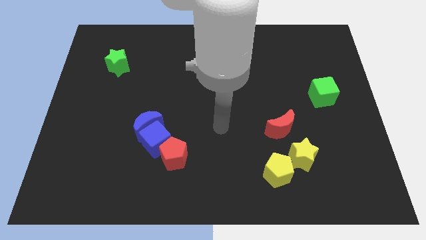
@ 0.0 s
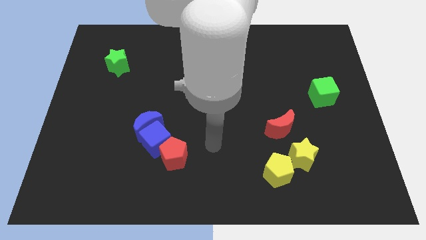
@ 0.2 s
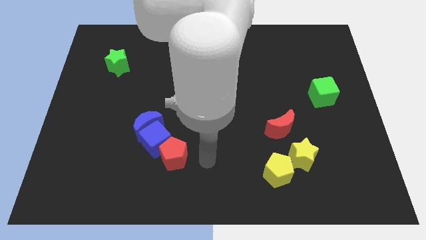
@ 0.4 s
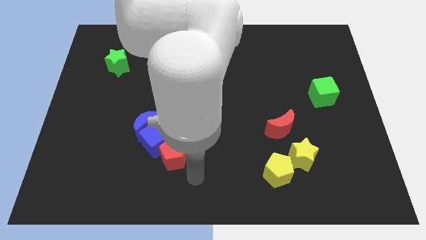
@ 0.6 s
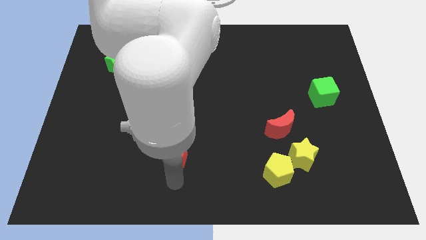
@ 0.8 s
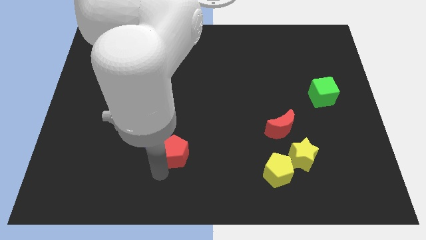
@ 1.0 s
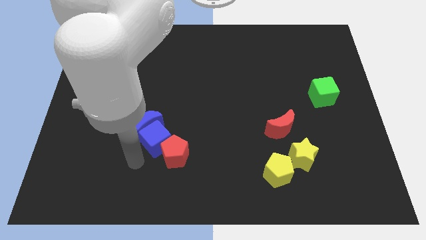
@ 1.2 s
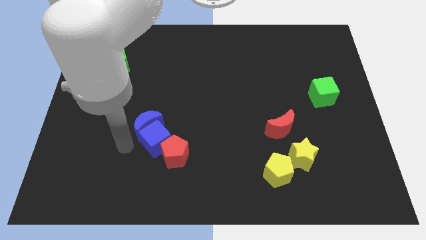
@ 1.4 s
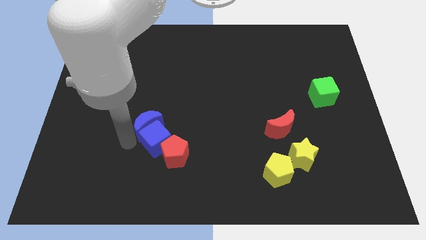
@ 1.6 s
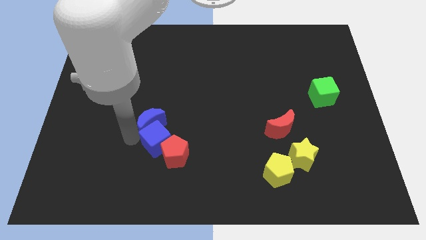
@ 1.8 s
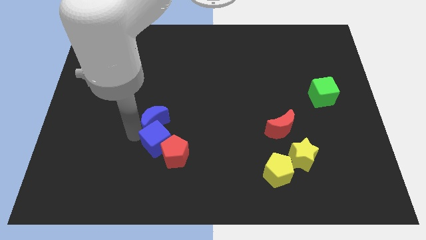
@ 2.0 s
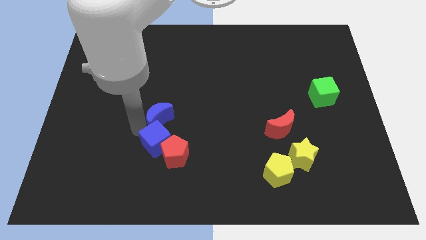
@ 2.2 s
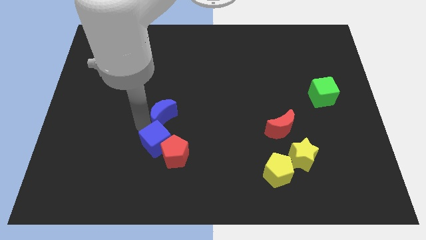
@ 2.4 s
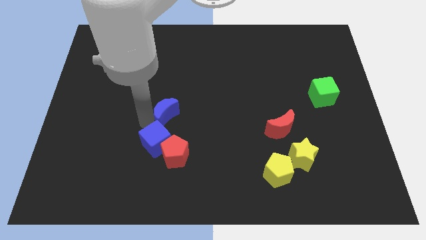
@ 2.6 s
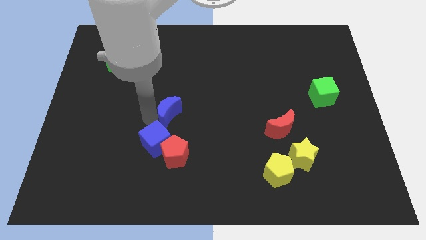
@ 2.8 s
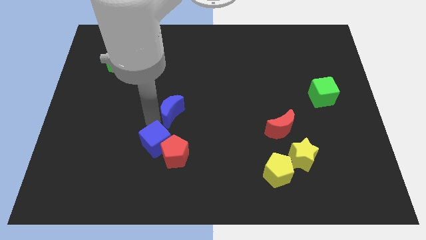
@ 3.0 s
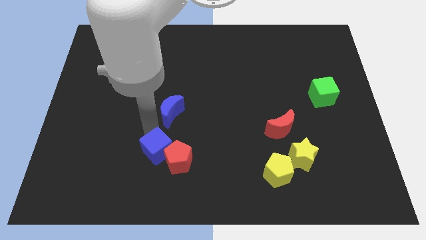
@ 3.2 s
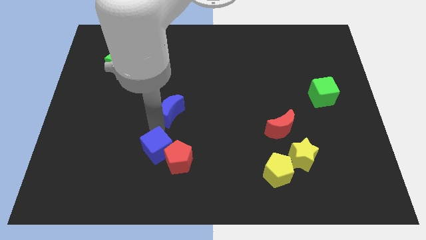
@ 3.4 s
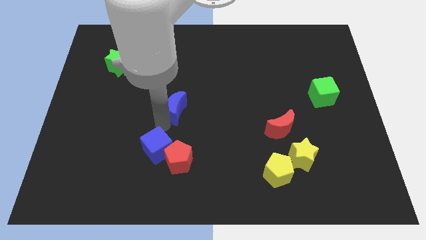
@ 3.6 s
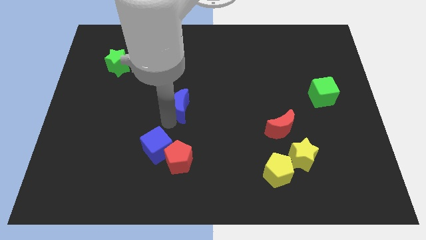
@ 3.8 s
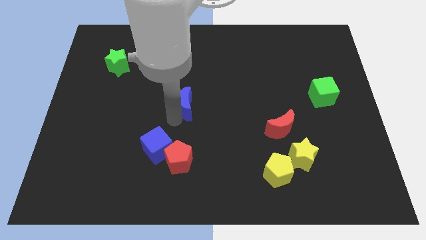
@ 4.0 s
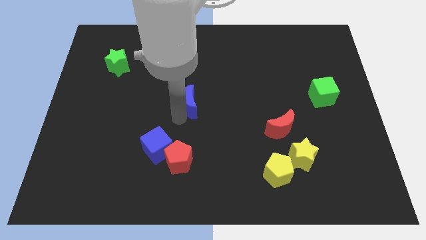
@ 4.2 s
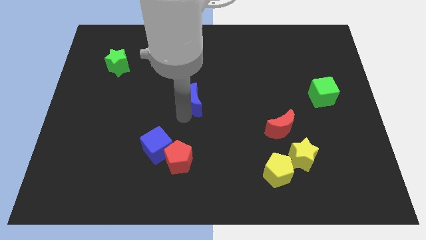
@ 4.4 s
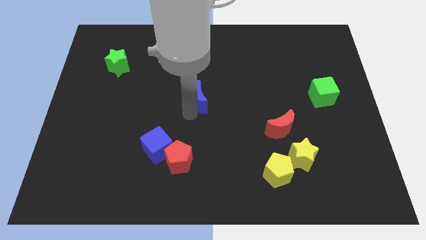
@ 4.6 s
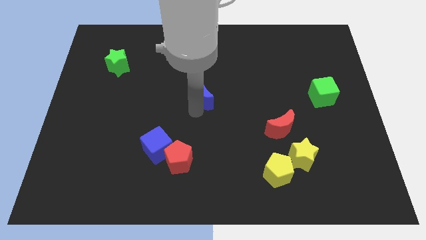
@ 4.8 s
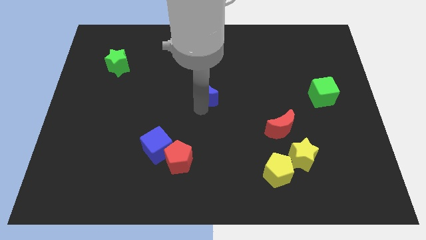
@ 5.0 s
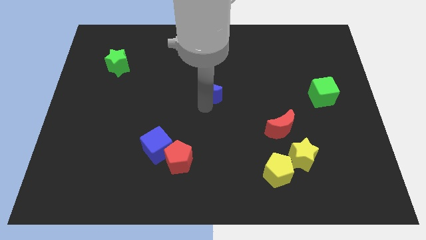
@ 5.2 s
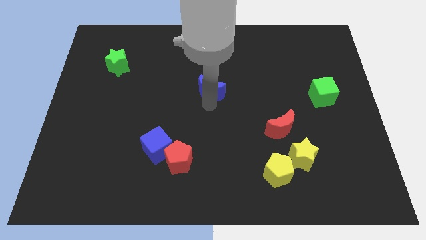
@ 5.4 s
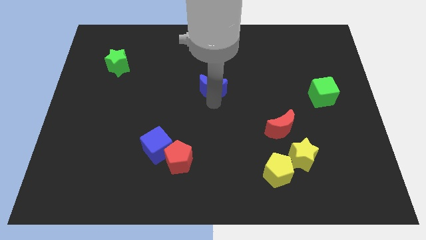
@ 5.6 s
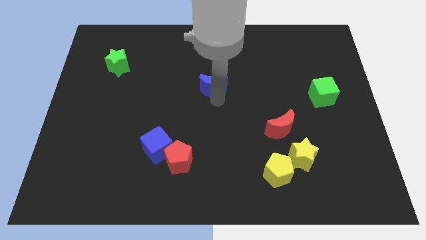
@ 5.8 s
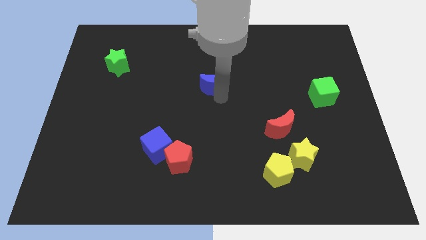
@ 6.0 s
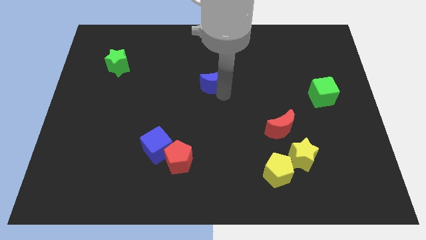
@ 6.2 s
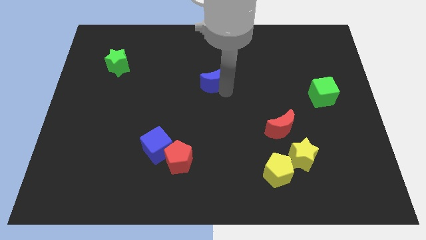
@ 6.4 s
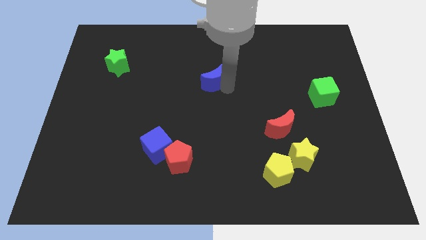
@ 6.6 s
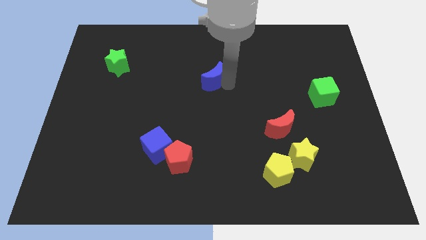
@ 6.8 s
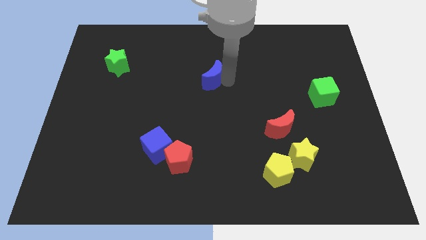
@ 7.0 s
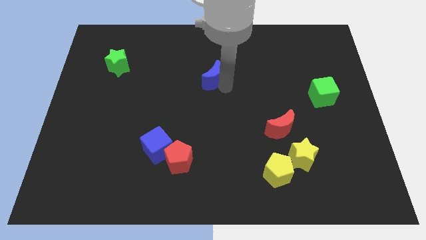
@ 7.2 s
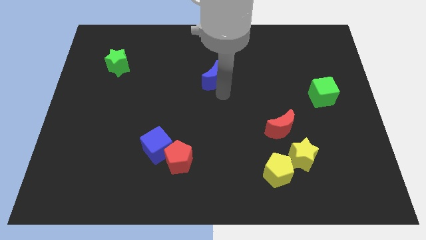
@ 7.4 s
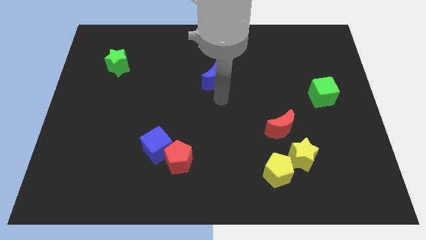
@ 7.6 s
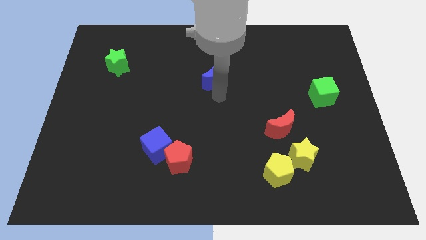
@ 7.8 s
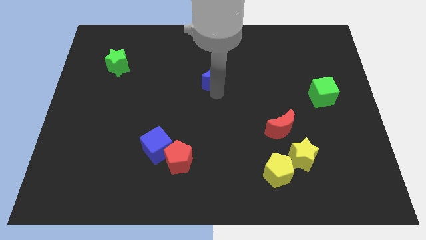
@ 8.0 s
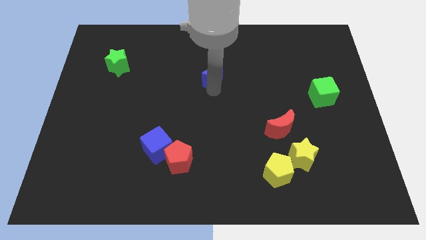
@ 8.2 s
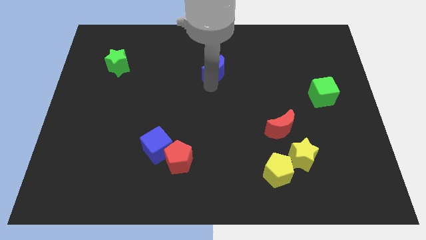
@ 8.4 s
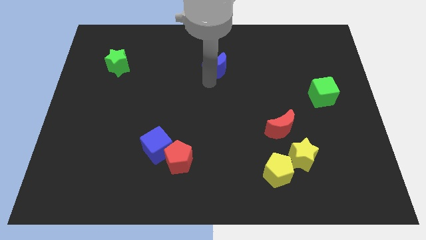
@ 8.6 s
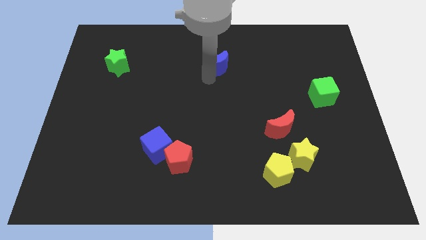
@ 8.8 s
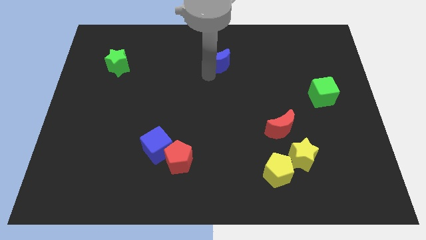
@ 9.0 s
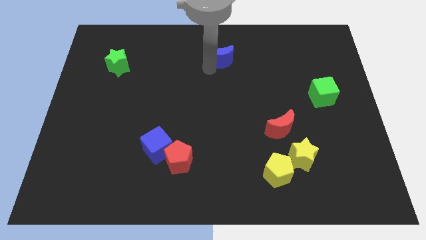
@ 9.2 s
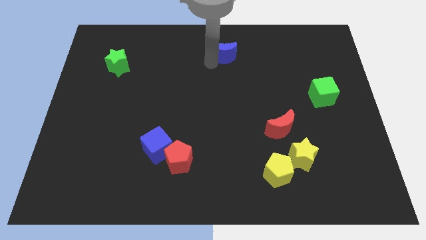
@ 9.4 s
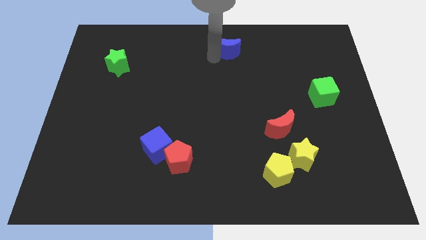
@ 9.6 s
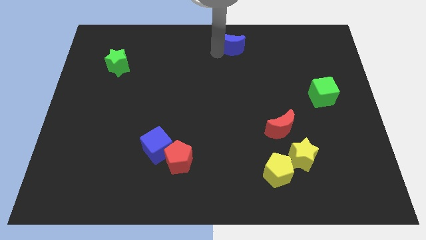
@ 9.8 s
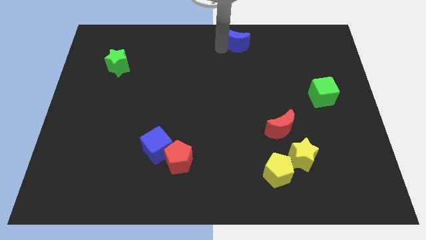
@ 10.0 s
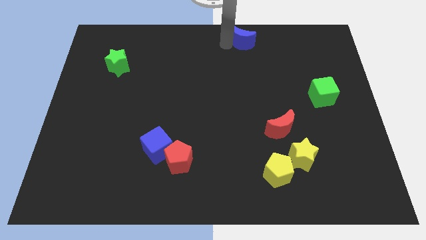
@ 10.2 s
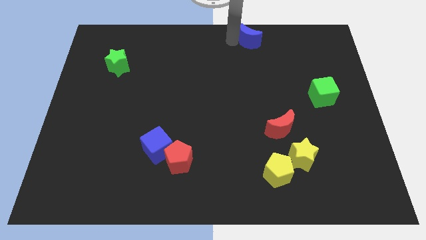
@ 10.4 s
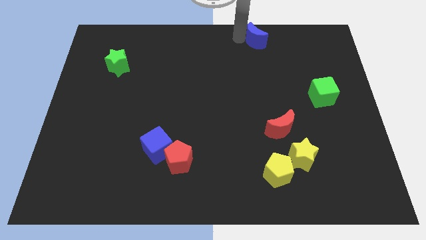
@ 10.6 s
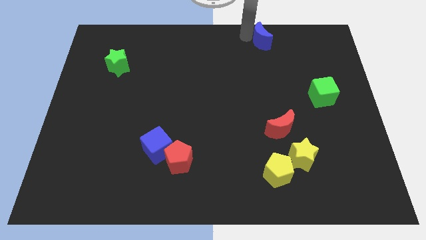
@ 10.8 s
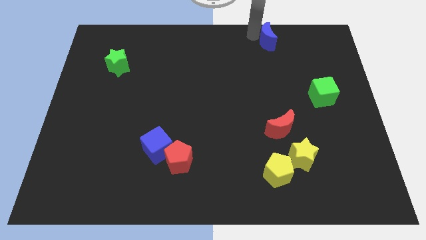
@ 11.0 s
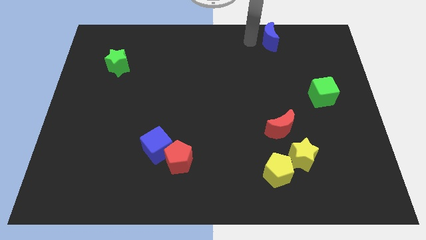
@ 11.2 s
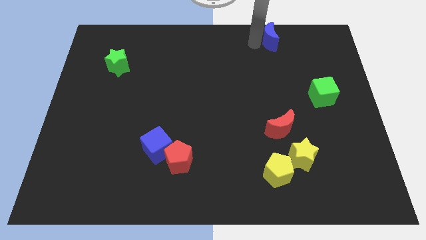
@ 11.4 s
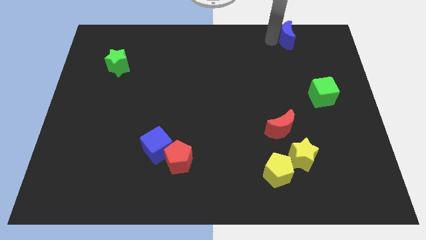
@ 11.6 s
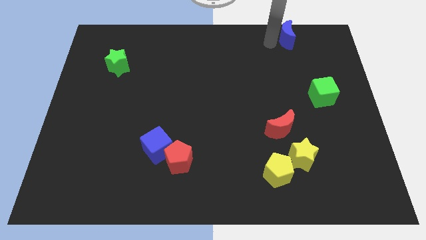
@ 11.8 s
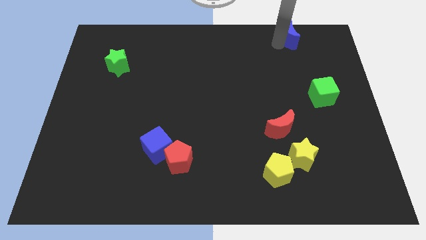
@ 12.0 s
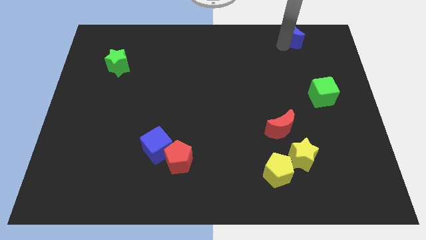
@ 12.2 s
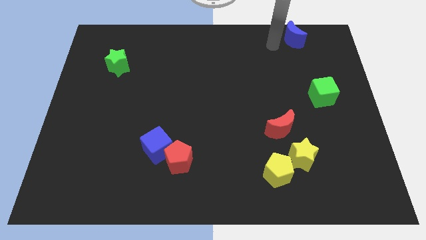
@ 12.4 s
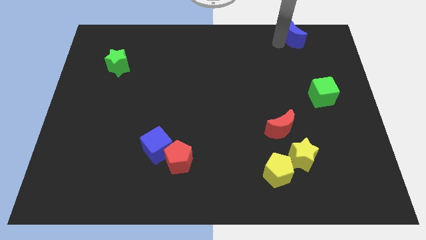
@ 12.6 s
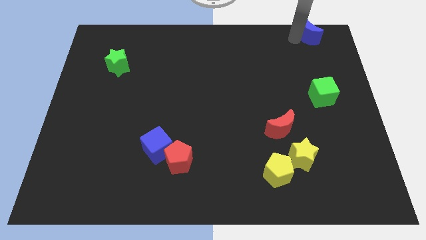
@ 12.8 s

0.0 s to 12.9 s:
slide the blue moon to the top right
